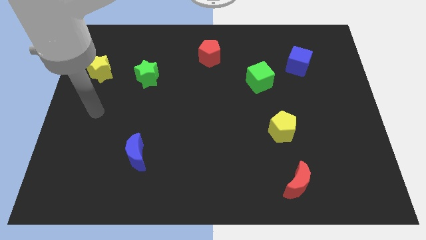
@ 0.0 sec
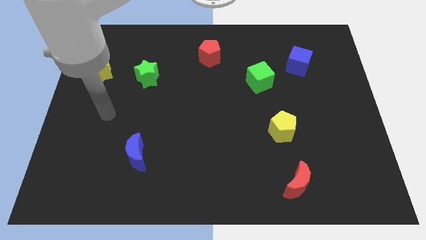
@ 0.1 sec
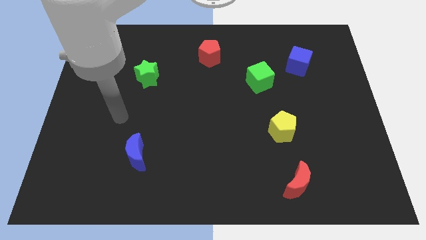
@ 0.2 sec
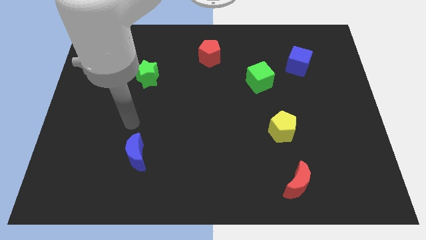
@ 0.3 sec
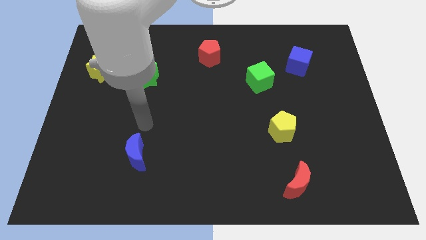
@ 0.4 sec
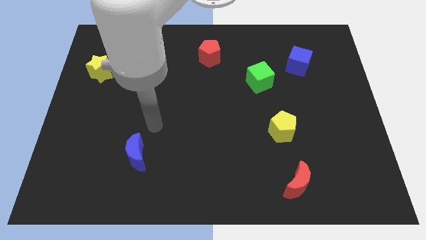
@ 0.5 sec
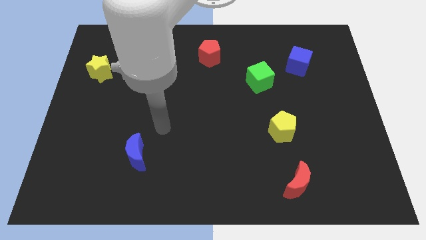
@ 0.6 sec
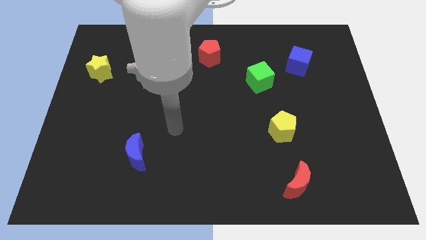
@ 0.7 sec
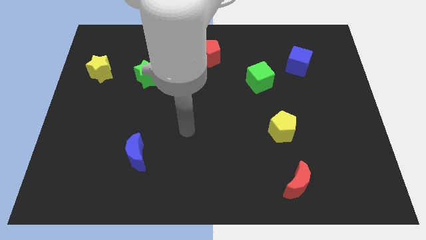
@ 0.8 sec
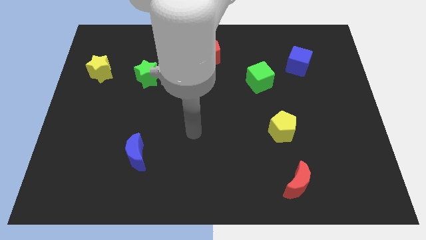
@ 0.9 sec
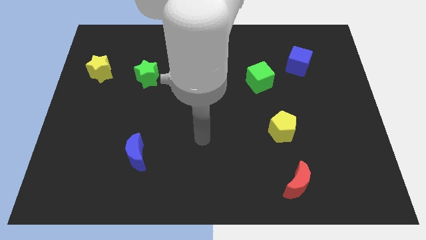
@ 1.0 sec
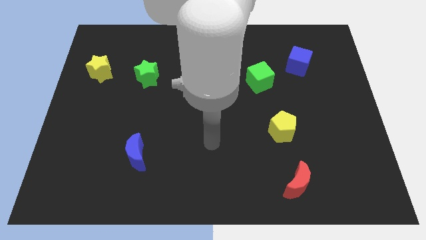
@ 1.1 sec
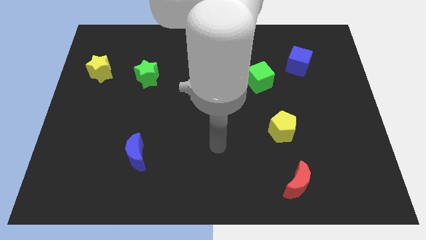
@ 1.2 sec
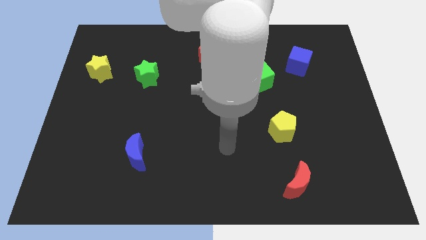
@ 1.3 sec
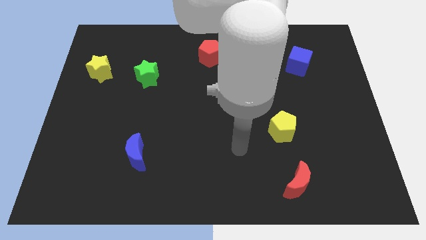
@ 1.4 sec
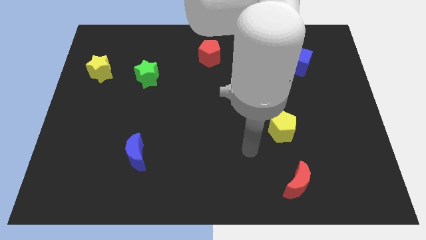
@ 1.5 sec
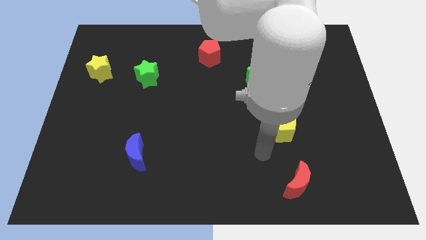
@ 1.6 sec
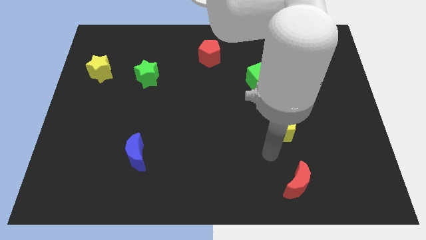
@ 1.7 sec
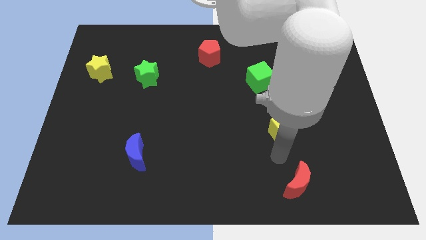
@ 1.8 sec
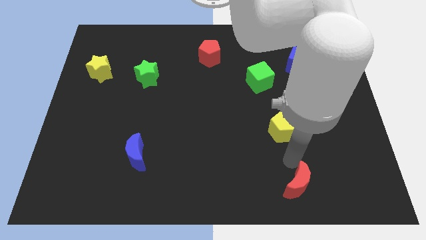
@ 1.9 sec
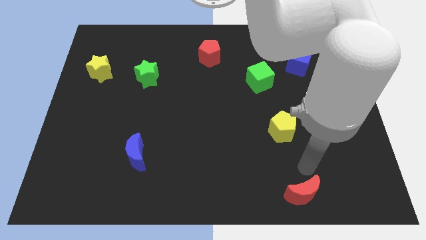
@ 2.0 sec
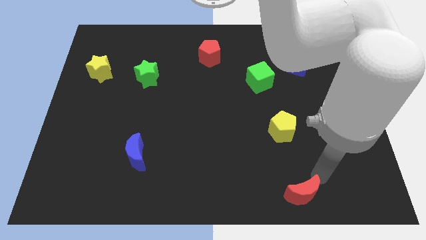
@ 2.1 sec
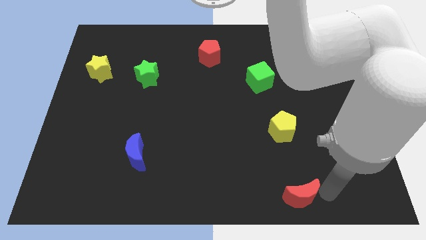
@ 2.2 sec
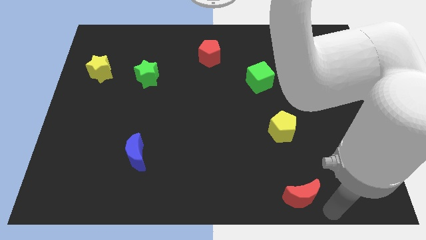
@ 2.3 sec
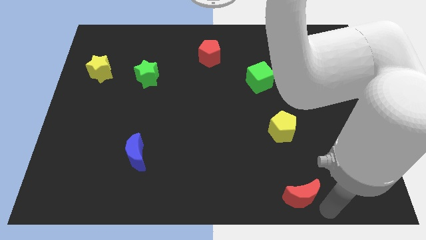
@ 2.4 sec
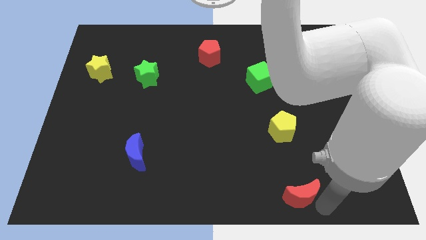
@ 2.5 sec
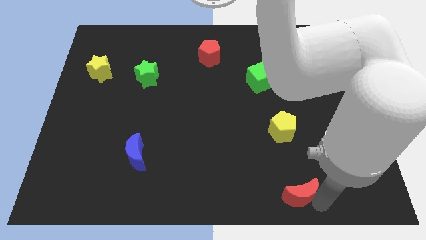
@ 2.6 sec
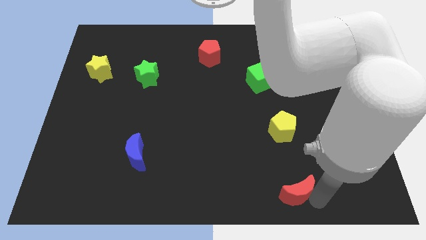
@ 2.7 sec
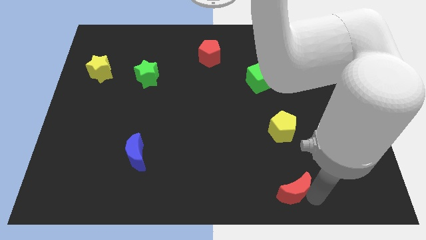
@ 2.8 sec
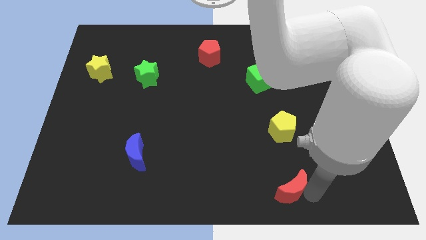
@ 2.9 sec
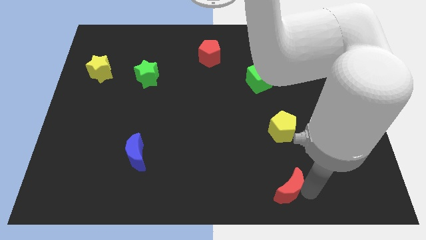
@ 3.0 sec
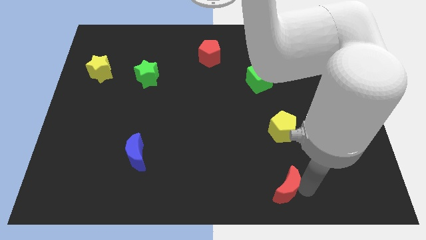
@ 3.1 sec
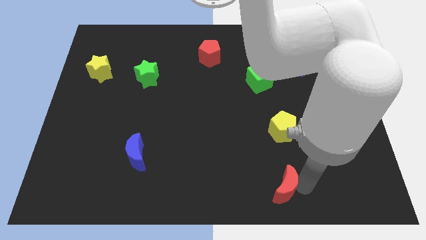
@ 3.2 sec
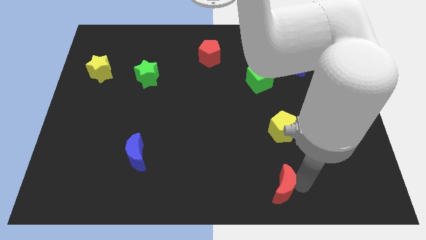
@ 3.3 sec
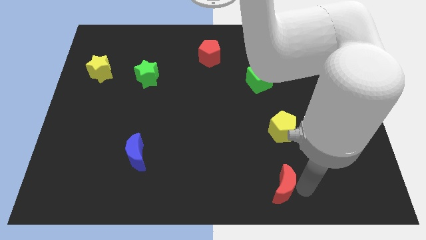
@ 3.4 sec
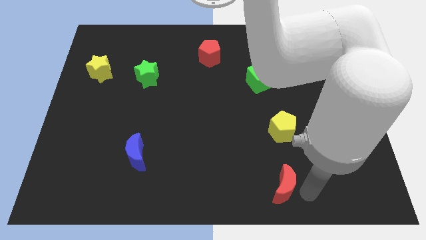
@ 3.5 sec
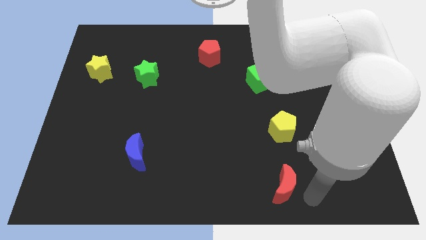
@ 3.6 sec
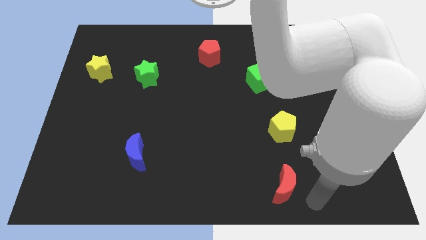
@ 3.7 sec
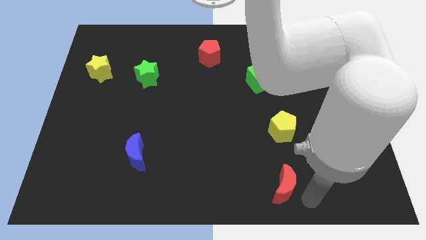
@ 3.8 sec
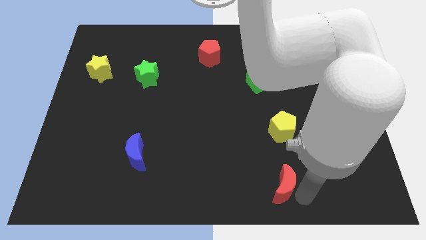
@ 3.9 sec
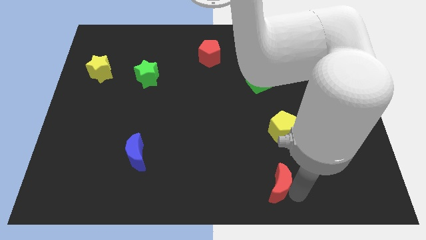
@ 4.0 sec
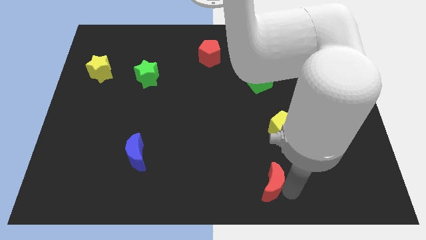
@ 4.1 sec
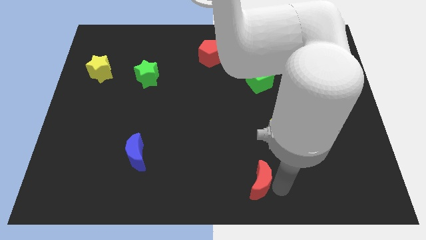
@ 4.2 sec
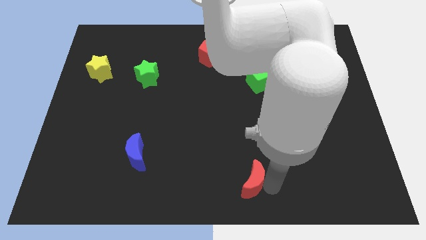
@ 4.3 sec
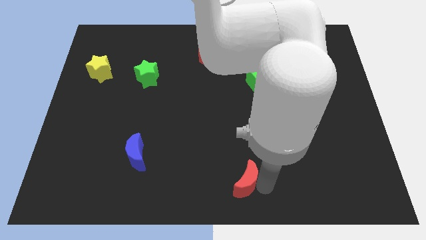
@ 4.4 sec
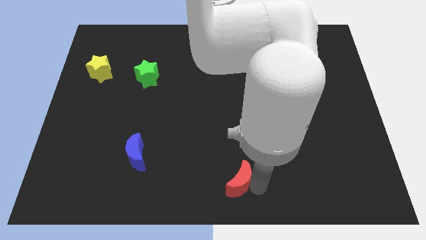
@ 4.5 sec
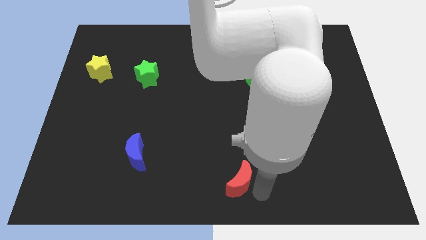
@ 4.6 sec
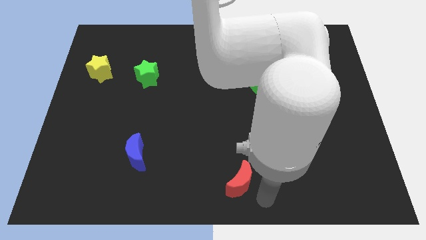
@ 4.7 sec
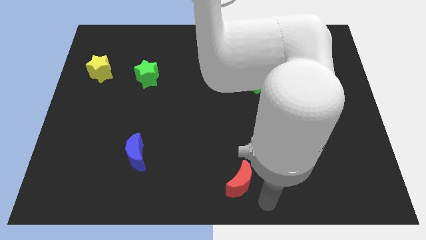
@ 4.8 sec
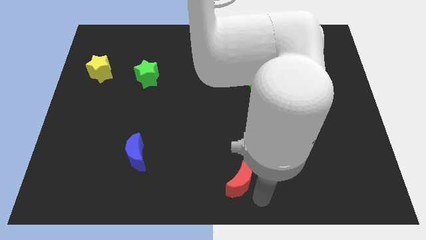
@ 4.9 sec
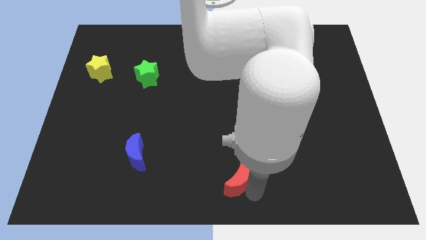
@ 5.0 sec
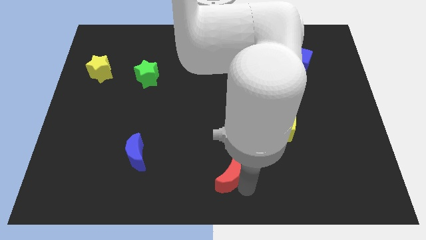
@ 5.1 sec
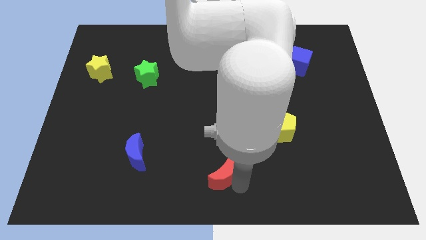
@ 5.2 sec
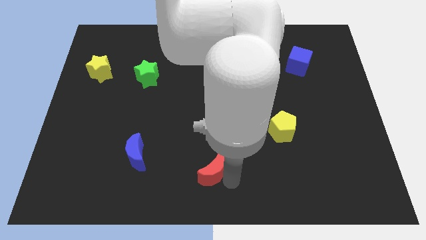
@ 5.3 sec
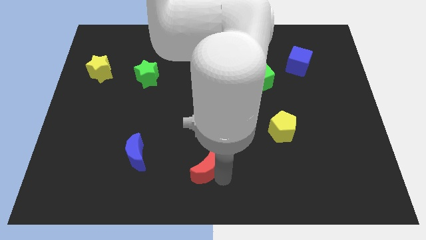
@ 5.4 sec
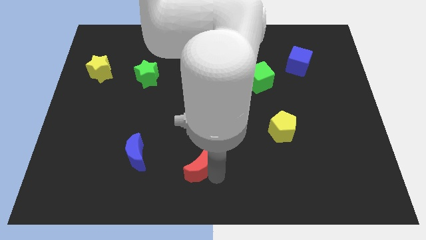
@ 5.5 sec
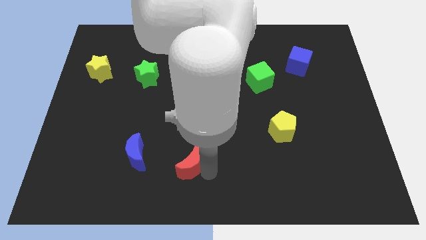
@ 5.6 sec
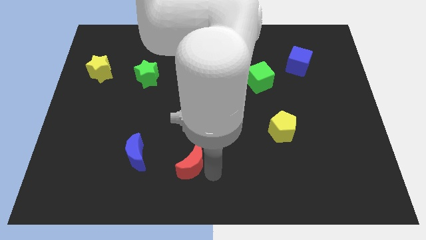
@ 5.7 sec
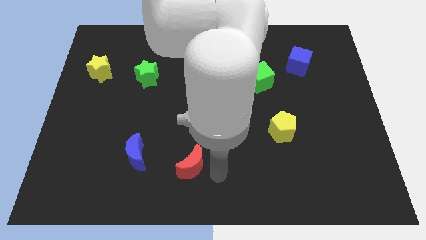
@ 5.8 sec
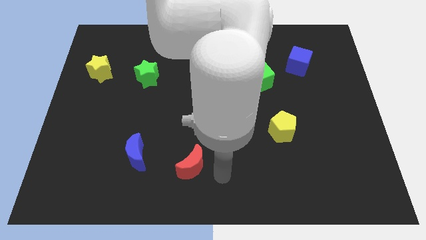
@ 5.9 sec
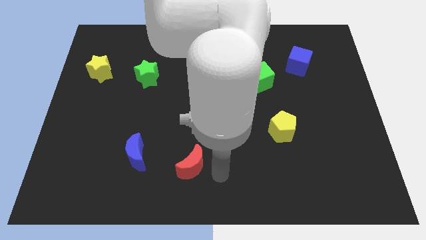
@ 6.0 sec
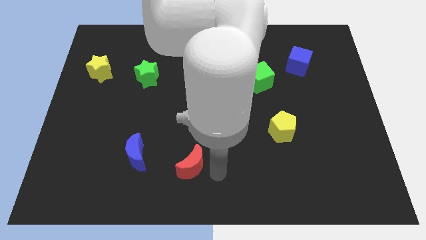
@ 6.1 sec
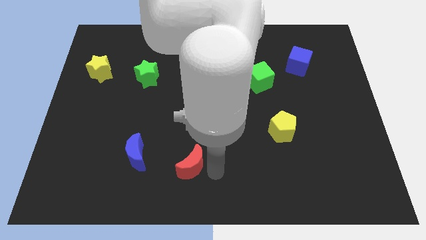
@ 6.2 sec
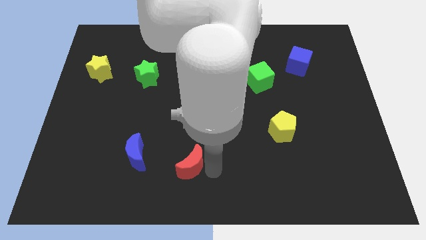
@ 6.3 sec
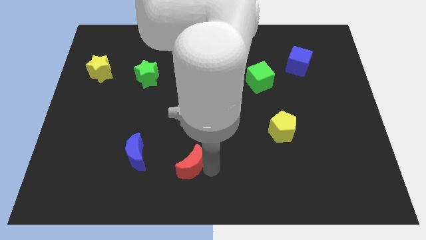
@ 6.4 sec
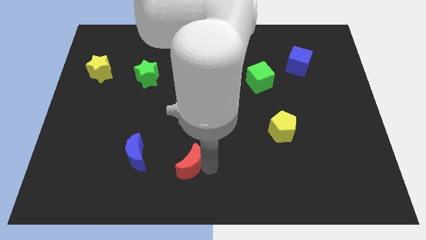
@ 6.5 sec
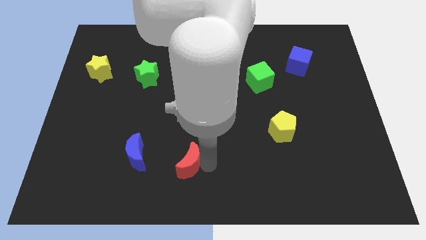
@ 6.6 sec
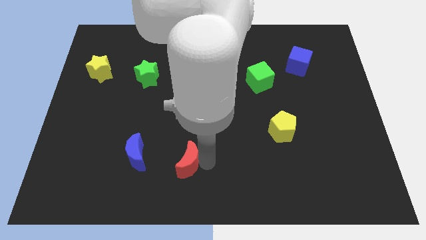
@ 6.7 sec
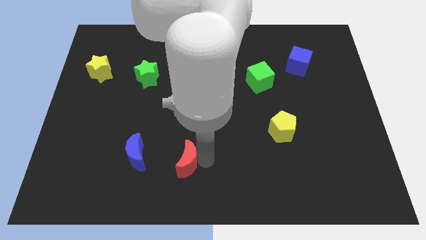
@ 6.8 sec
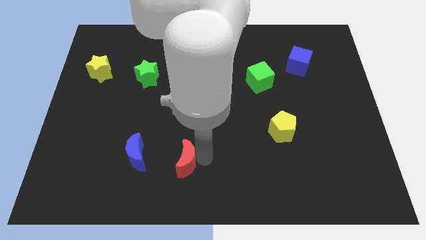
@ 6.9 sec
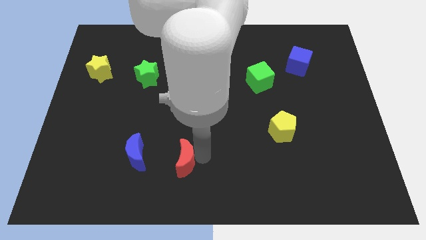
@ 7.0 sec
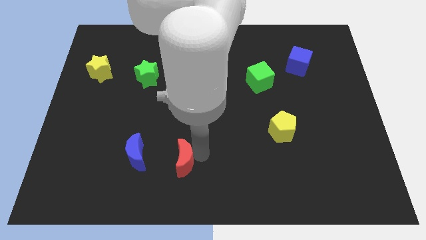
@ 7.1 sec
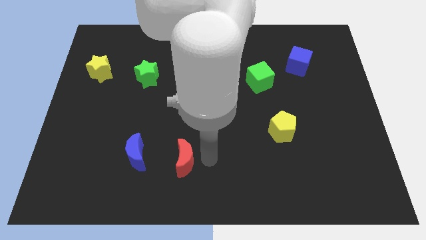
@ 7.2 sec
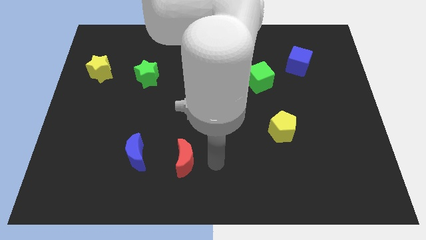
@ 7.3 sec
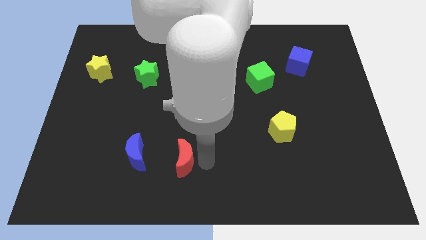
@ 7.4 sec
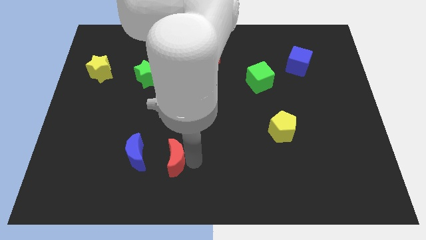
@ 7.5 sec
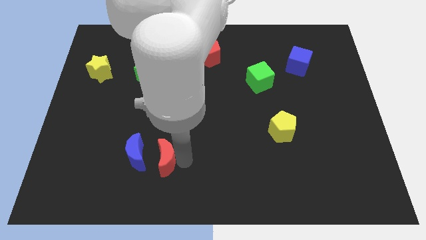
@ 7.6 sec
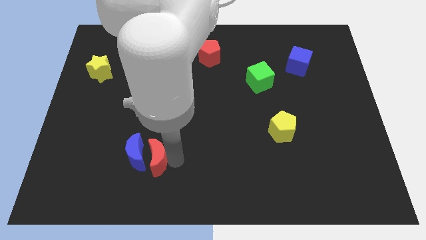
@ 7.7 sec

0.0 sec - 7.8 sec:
slide the red moon next to the blue moon
